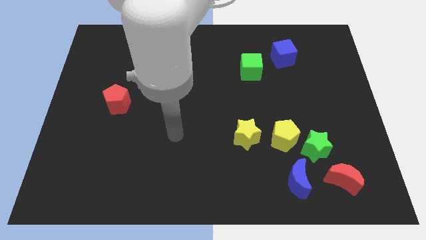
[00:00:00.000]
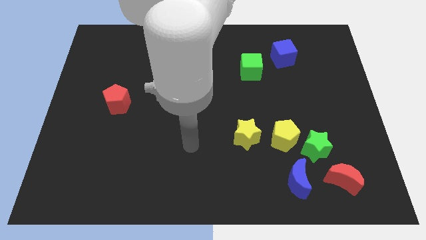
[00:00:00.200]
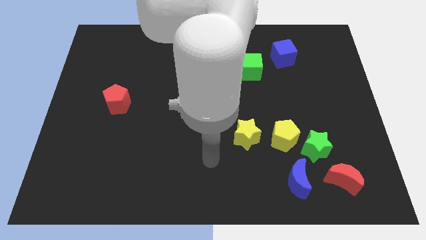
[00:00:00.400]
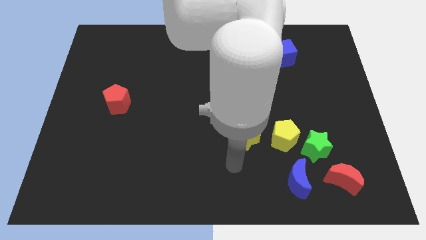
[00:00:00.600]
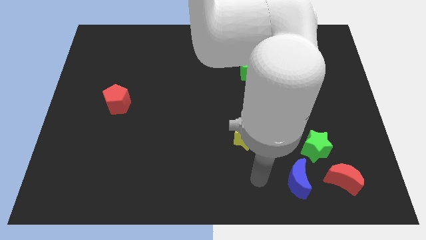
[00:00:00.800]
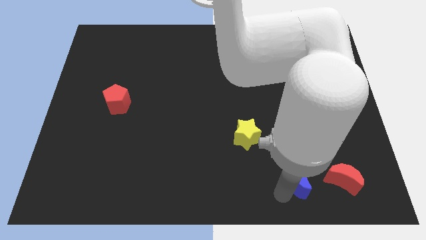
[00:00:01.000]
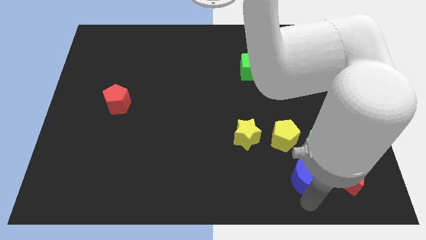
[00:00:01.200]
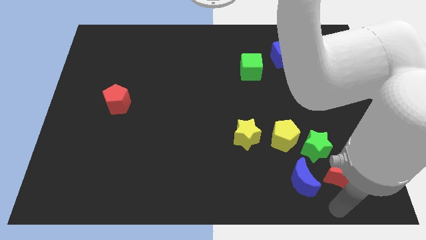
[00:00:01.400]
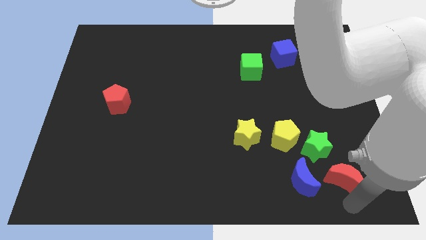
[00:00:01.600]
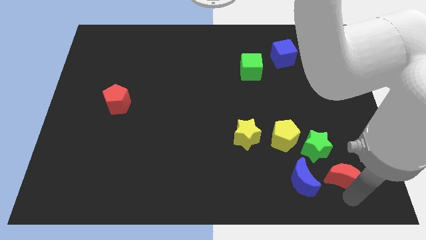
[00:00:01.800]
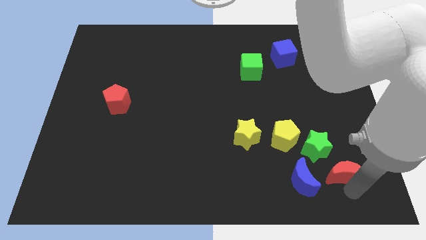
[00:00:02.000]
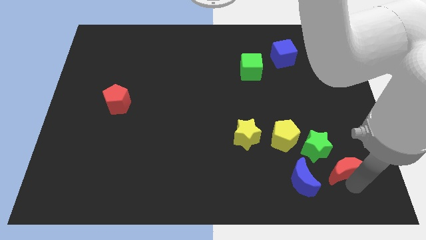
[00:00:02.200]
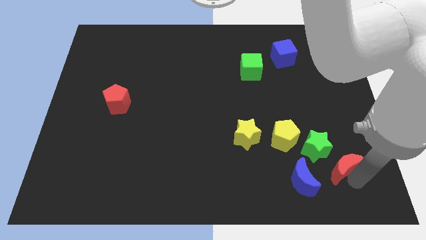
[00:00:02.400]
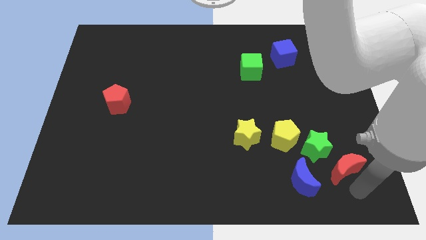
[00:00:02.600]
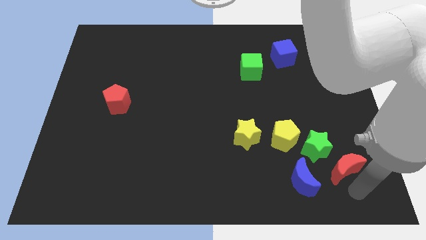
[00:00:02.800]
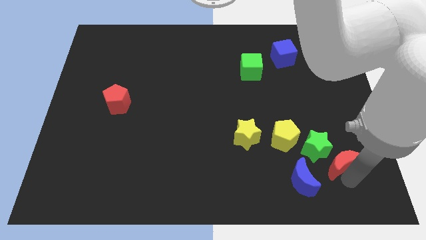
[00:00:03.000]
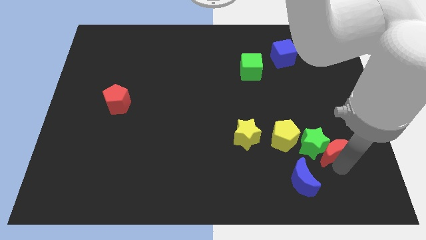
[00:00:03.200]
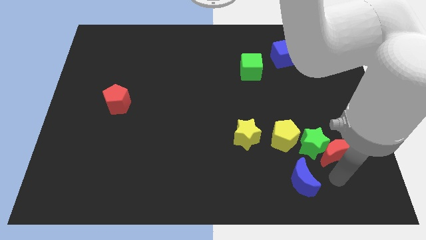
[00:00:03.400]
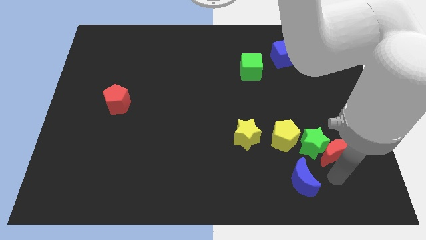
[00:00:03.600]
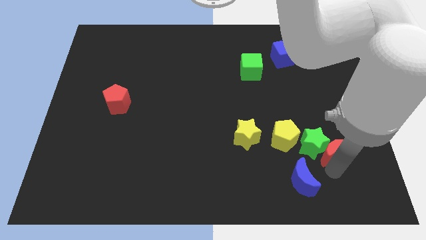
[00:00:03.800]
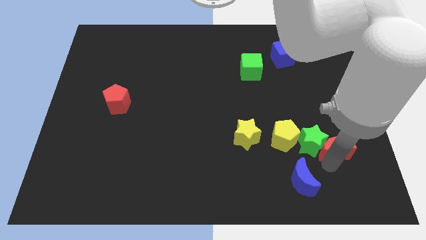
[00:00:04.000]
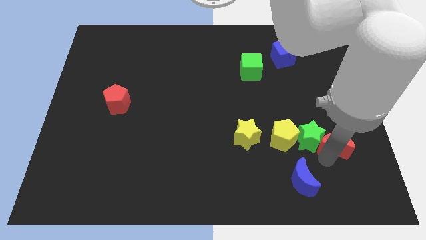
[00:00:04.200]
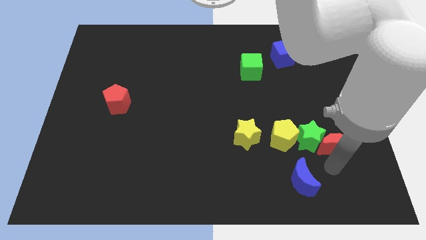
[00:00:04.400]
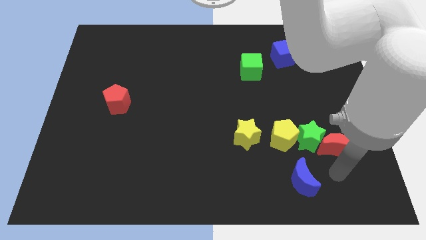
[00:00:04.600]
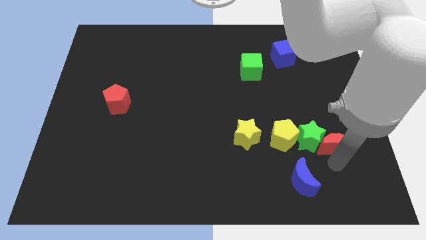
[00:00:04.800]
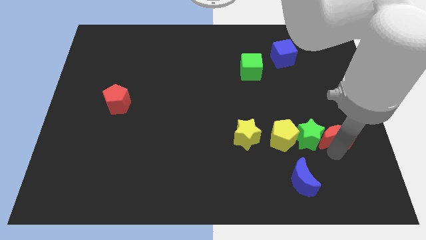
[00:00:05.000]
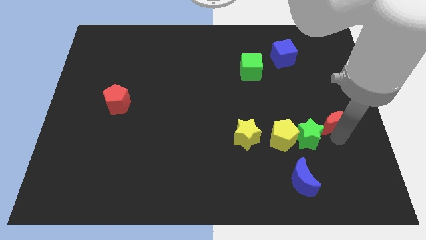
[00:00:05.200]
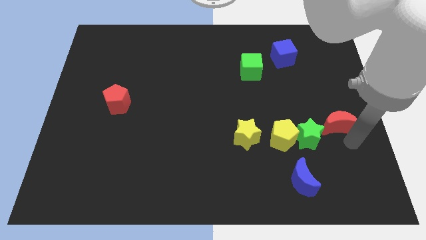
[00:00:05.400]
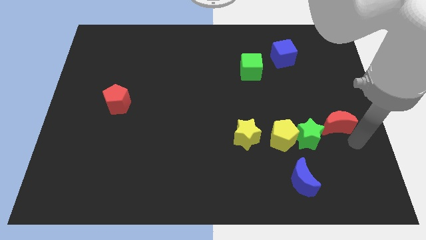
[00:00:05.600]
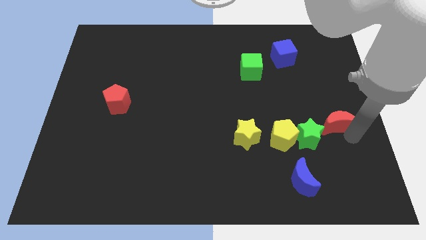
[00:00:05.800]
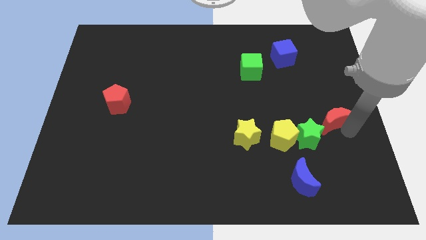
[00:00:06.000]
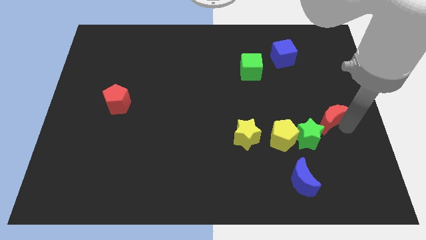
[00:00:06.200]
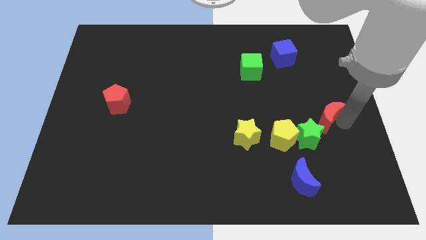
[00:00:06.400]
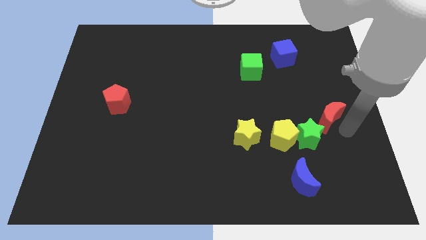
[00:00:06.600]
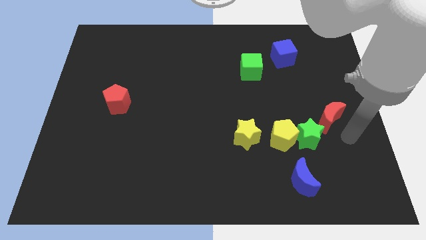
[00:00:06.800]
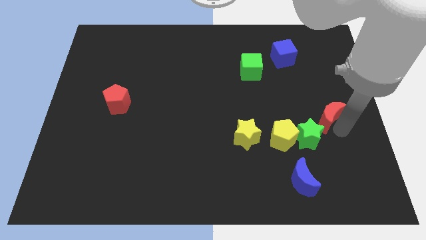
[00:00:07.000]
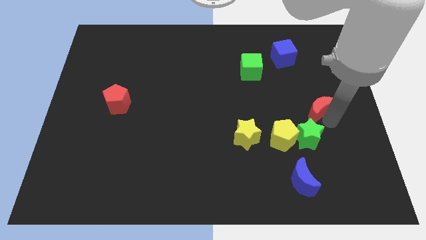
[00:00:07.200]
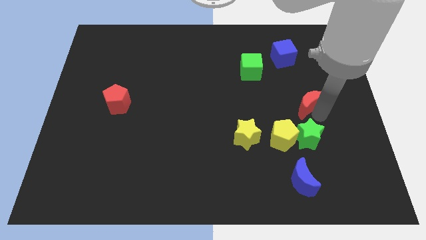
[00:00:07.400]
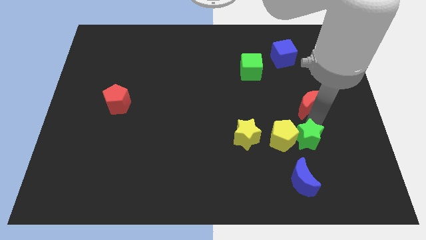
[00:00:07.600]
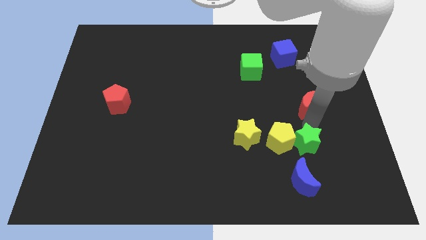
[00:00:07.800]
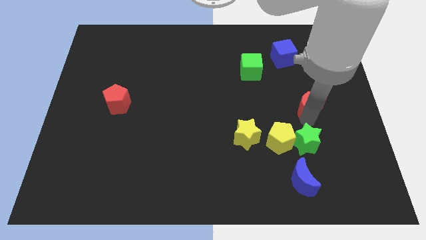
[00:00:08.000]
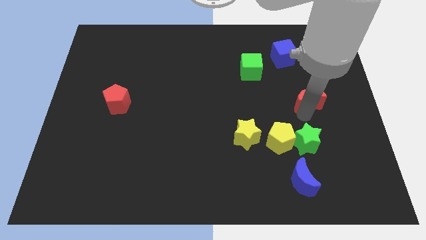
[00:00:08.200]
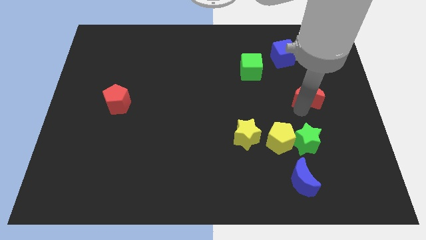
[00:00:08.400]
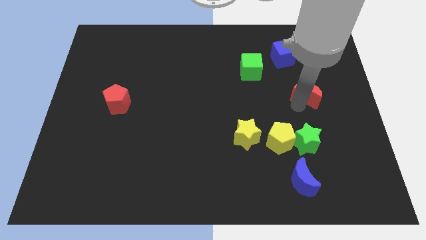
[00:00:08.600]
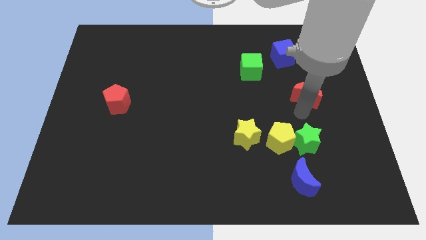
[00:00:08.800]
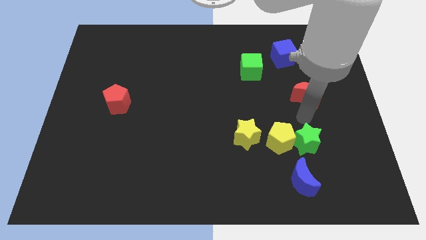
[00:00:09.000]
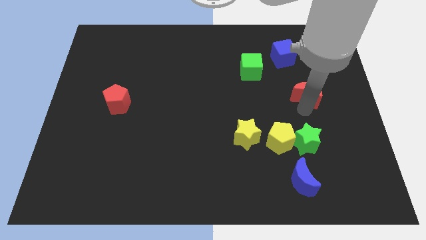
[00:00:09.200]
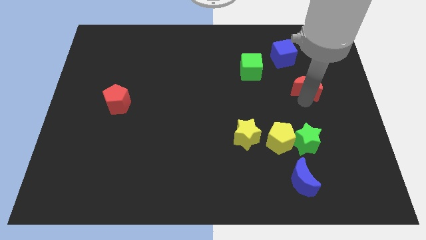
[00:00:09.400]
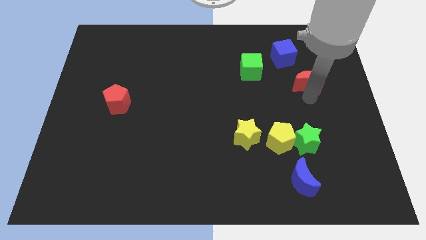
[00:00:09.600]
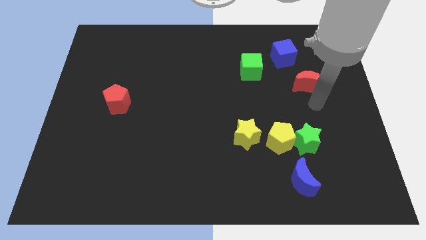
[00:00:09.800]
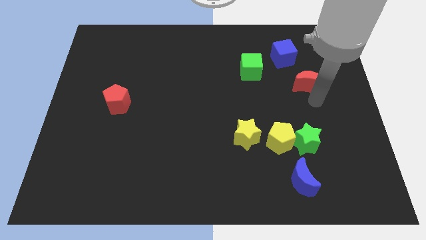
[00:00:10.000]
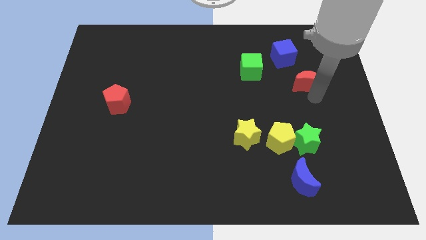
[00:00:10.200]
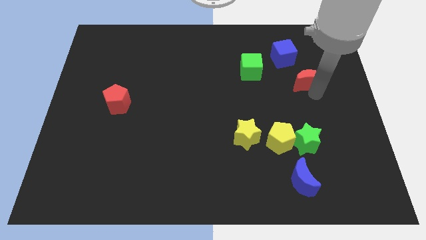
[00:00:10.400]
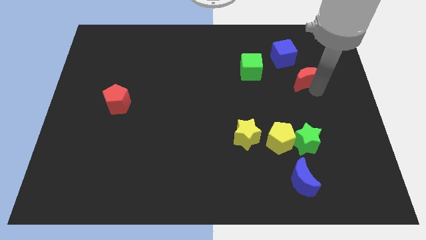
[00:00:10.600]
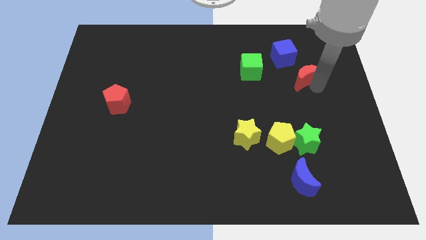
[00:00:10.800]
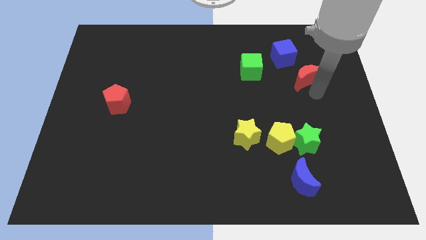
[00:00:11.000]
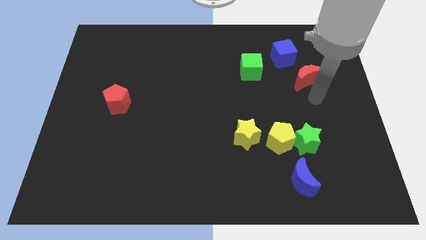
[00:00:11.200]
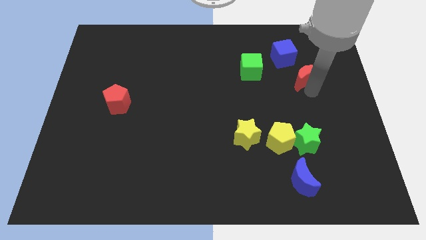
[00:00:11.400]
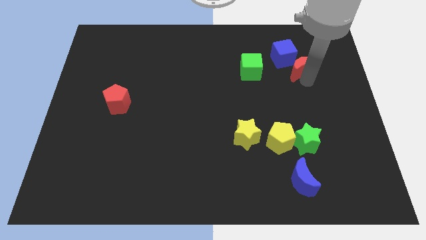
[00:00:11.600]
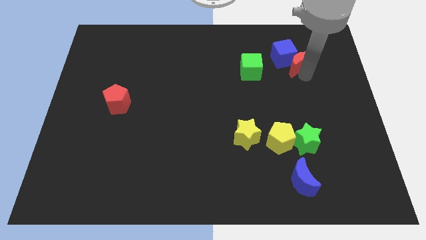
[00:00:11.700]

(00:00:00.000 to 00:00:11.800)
move the red moon close to the blue cube

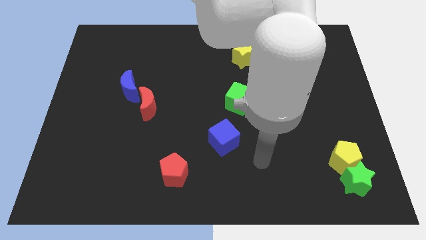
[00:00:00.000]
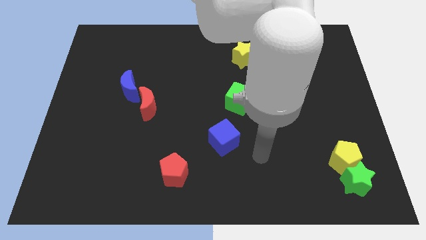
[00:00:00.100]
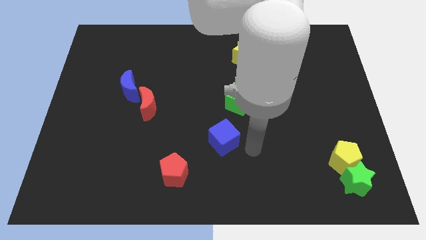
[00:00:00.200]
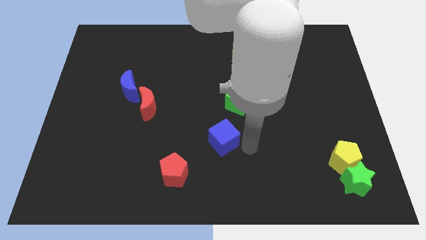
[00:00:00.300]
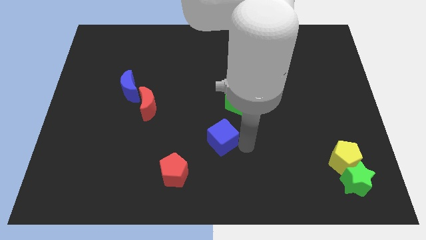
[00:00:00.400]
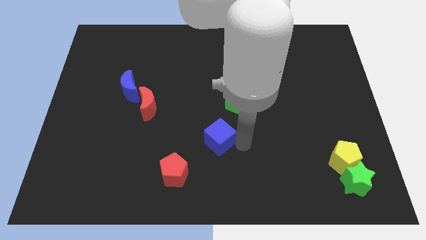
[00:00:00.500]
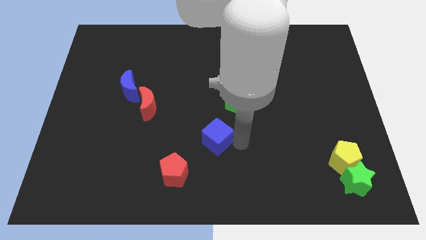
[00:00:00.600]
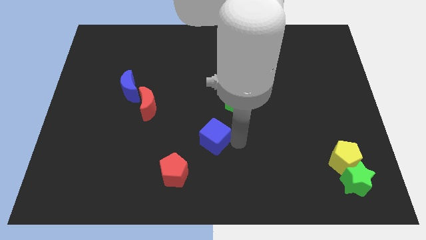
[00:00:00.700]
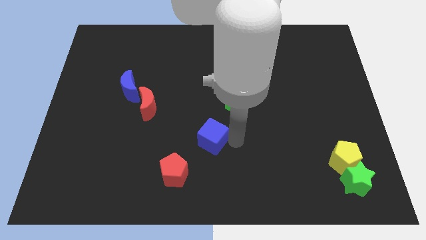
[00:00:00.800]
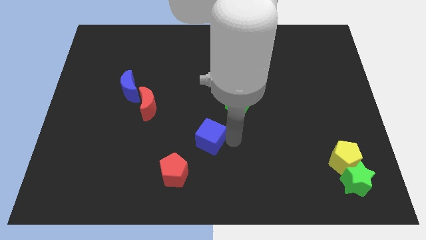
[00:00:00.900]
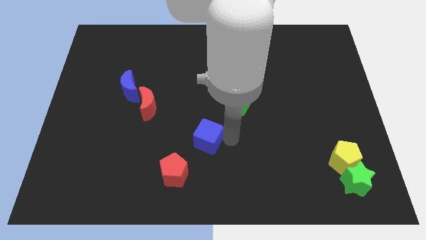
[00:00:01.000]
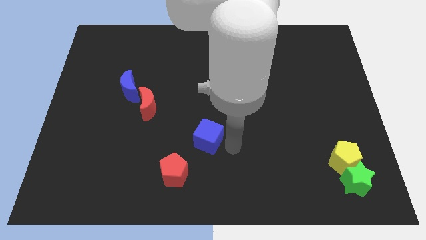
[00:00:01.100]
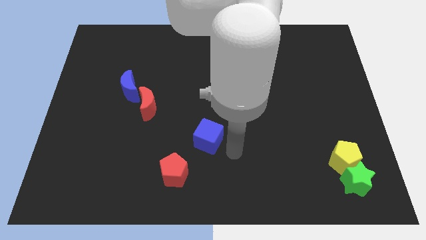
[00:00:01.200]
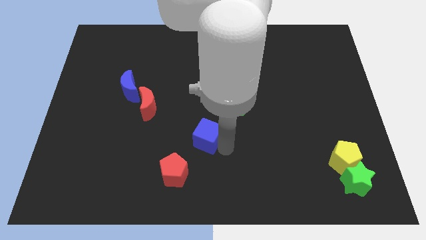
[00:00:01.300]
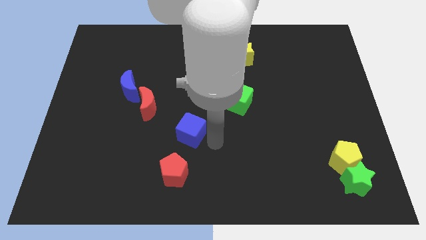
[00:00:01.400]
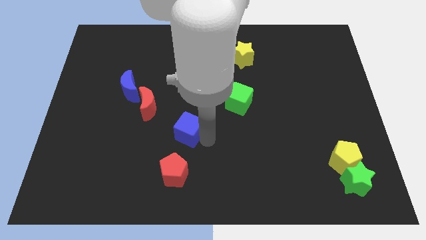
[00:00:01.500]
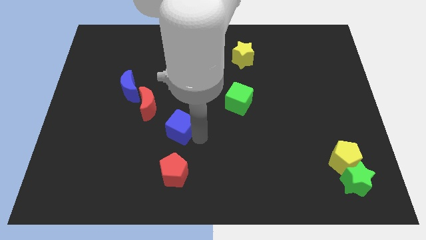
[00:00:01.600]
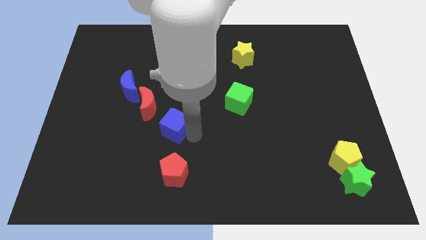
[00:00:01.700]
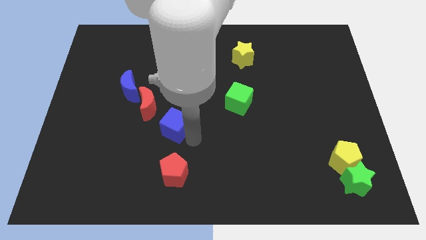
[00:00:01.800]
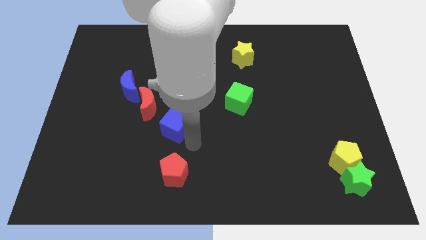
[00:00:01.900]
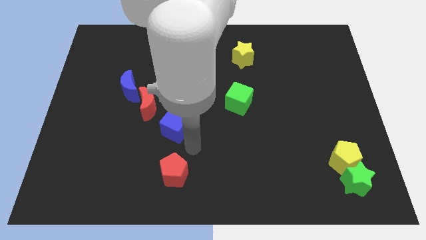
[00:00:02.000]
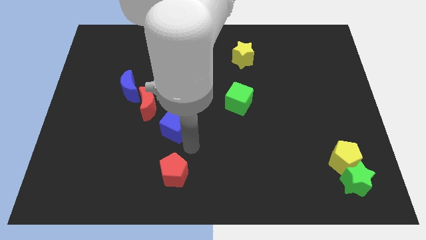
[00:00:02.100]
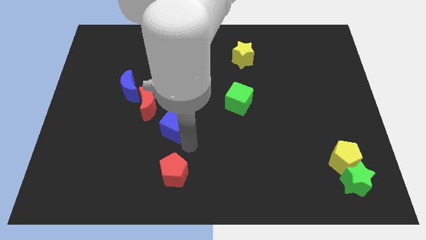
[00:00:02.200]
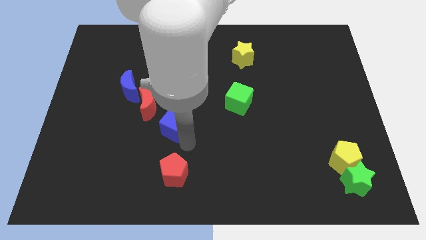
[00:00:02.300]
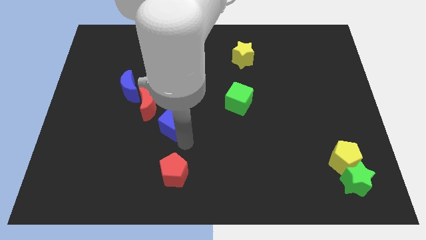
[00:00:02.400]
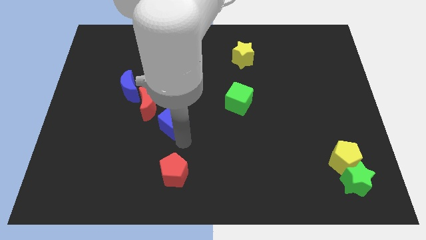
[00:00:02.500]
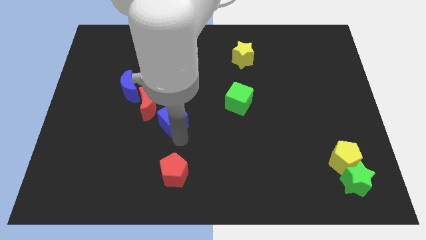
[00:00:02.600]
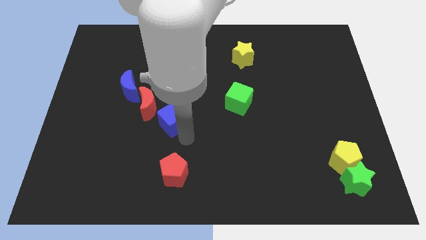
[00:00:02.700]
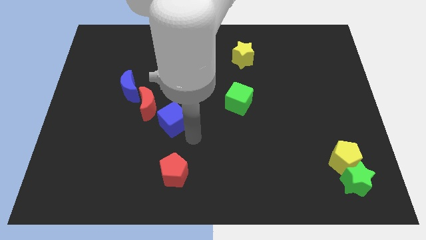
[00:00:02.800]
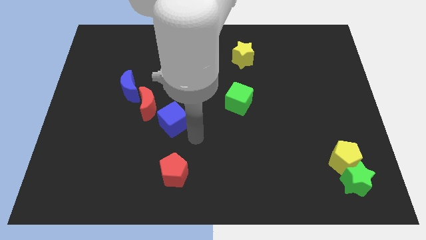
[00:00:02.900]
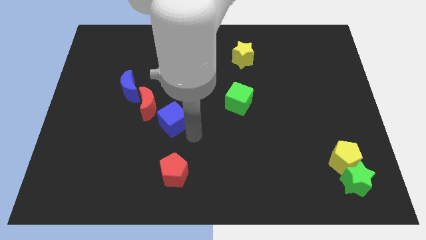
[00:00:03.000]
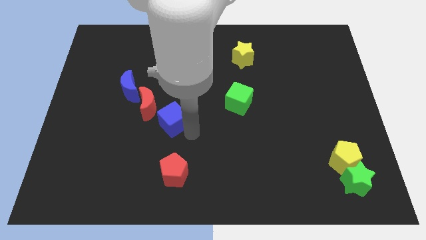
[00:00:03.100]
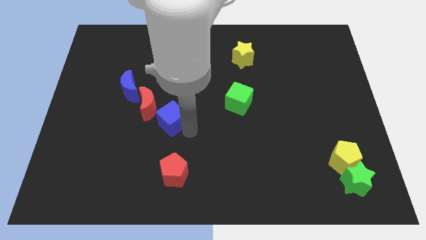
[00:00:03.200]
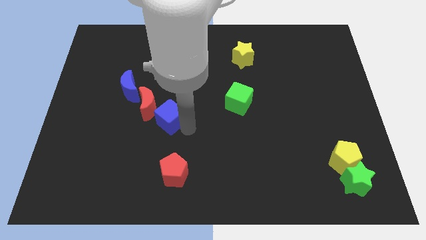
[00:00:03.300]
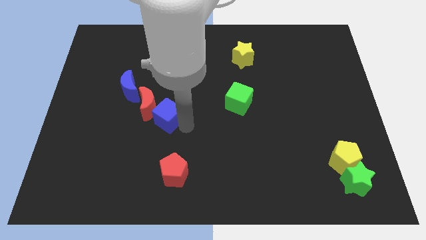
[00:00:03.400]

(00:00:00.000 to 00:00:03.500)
push the blue cube towards the red moon
